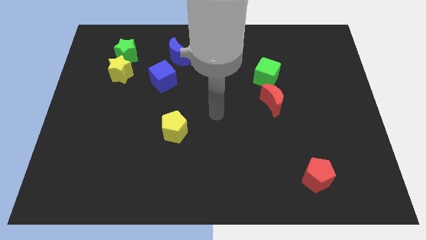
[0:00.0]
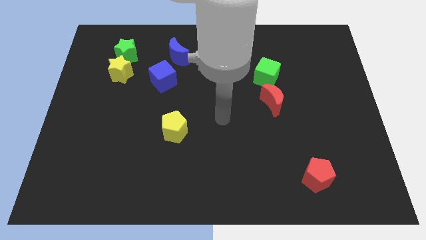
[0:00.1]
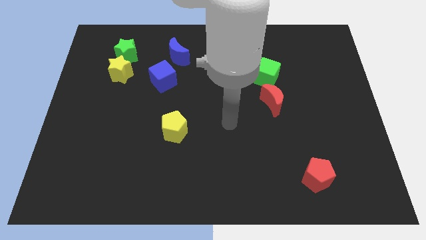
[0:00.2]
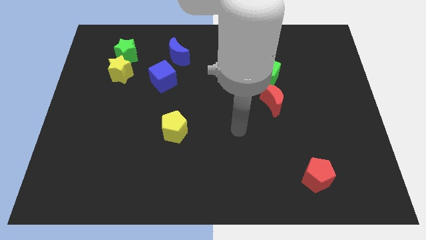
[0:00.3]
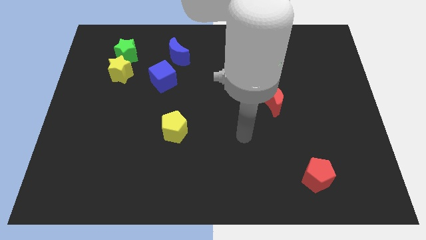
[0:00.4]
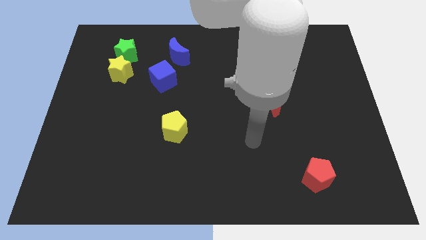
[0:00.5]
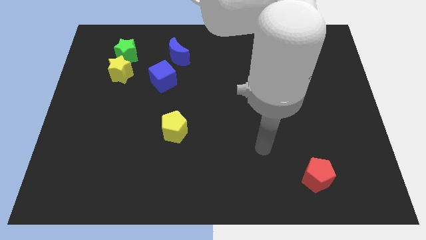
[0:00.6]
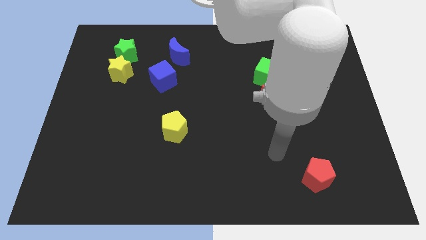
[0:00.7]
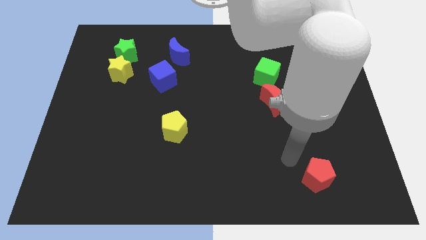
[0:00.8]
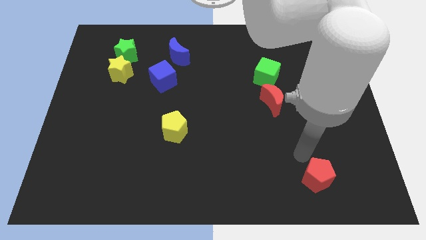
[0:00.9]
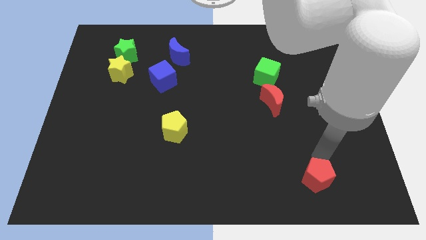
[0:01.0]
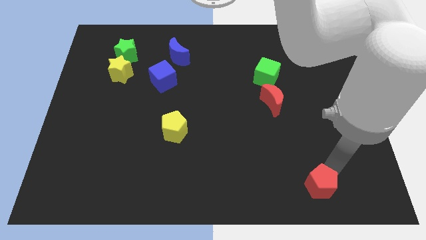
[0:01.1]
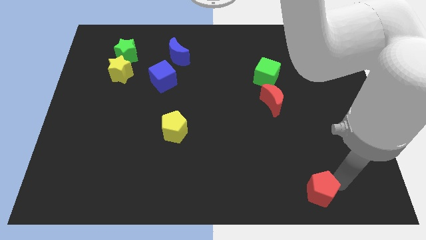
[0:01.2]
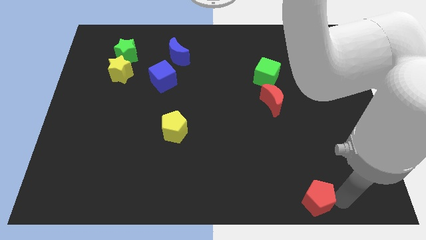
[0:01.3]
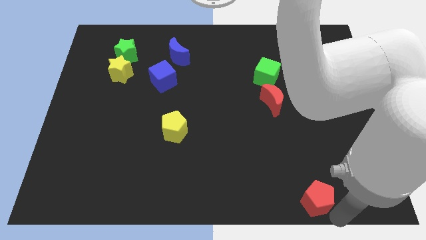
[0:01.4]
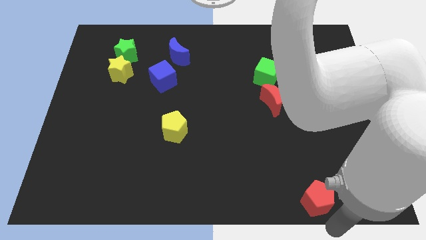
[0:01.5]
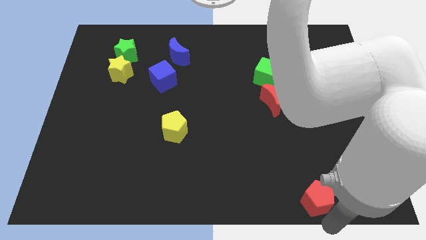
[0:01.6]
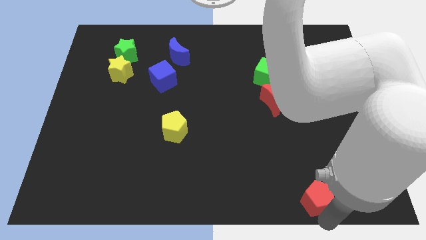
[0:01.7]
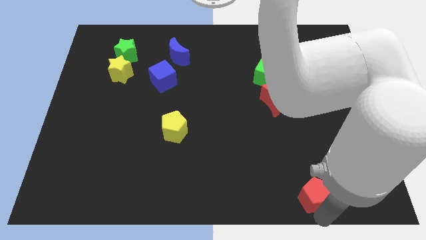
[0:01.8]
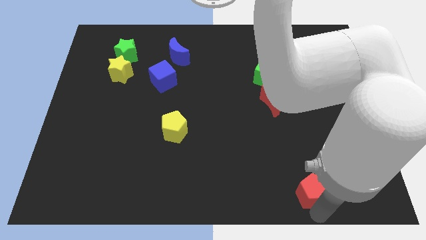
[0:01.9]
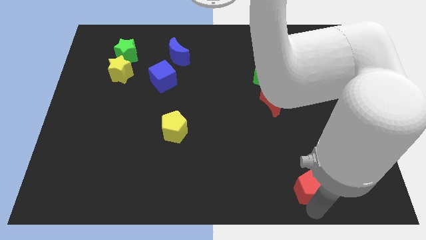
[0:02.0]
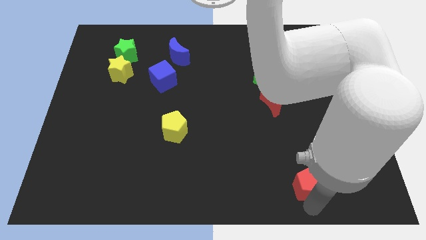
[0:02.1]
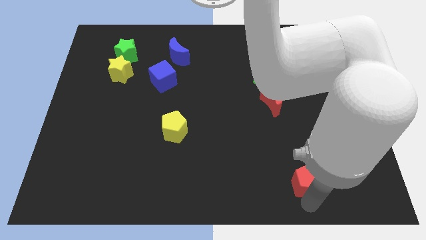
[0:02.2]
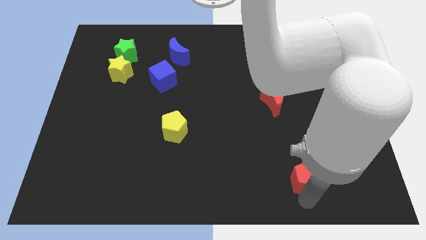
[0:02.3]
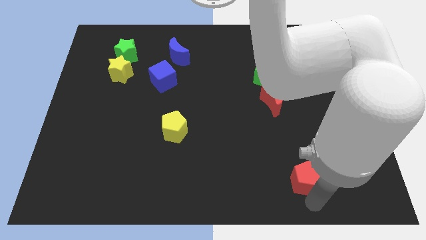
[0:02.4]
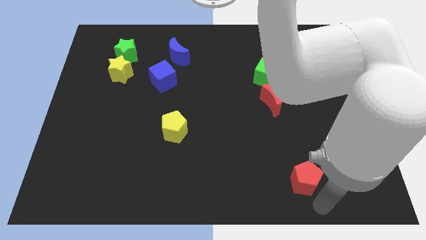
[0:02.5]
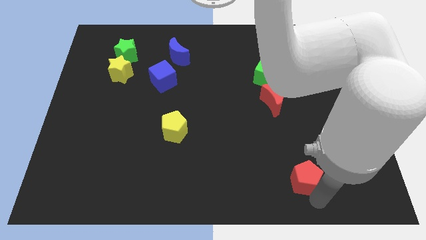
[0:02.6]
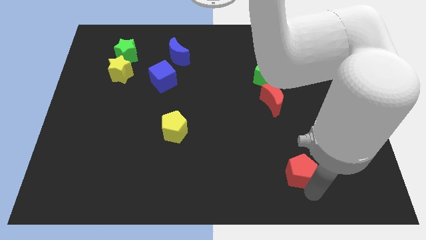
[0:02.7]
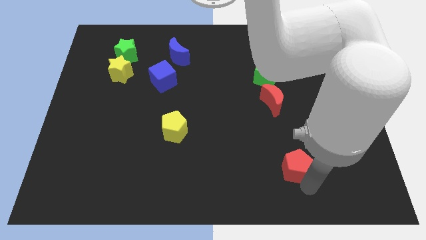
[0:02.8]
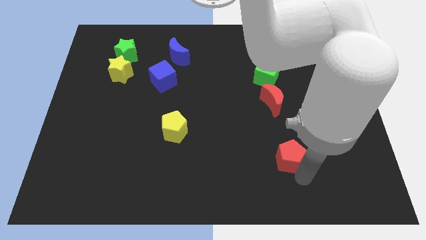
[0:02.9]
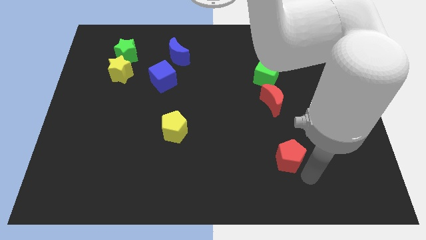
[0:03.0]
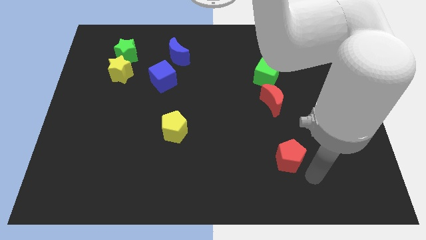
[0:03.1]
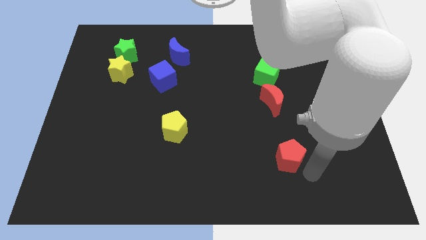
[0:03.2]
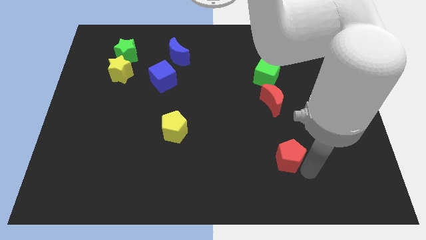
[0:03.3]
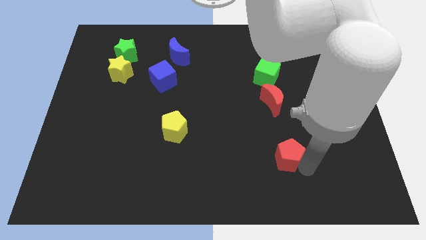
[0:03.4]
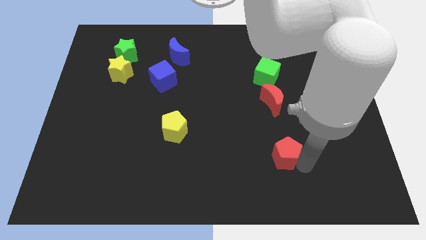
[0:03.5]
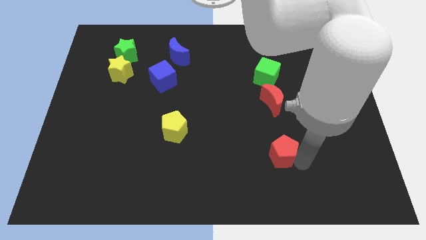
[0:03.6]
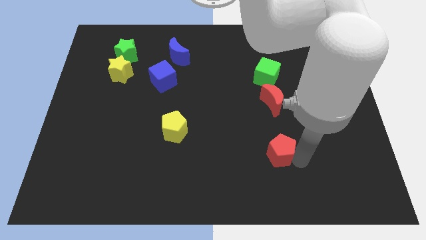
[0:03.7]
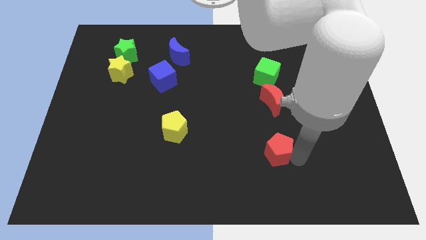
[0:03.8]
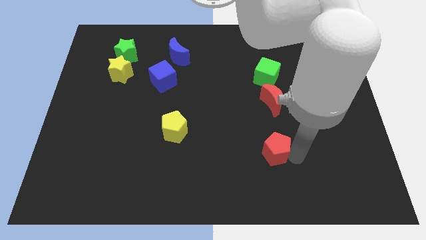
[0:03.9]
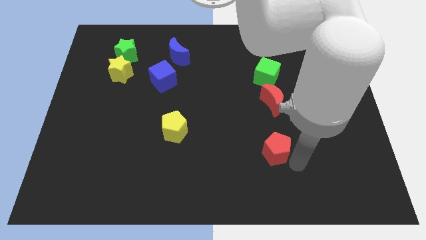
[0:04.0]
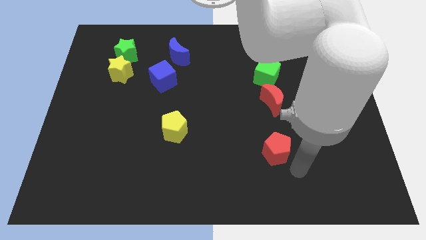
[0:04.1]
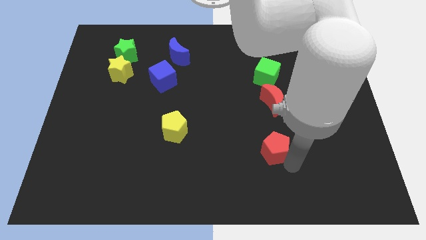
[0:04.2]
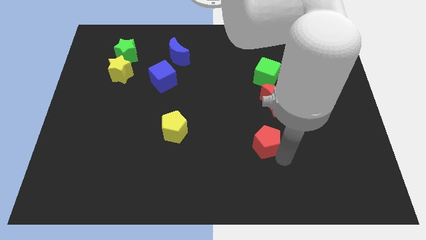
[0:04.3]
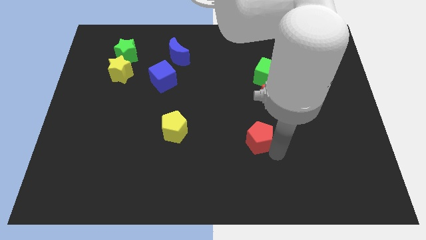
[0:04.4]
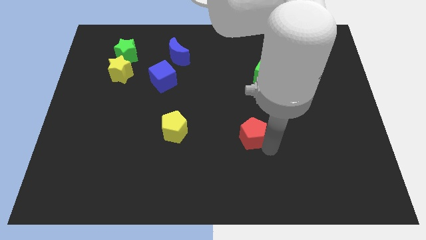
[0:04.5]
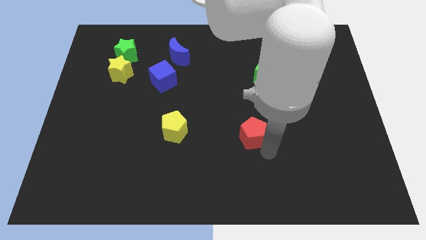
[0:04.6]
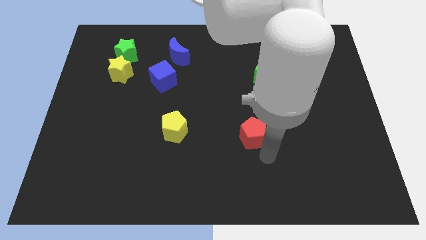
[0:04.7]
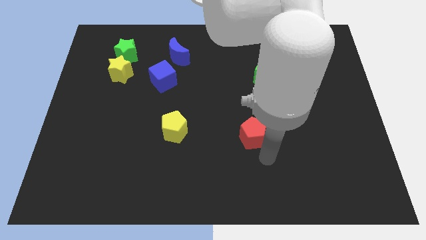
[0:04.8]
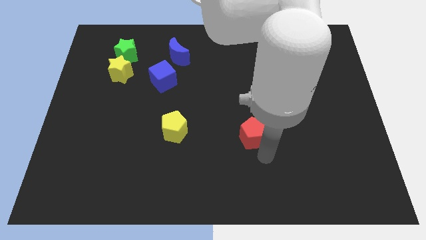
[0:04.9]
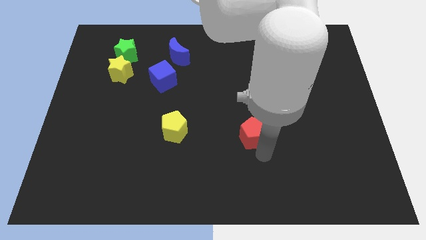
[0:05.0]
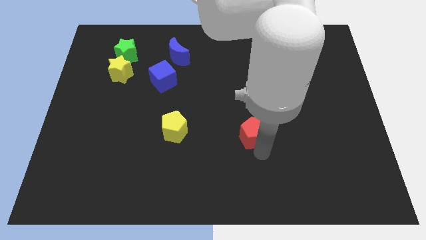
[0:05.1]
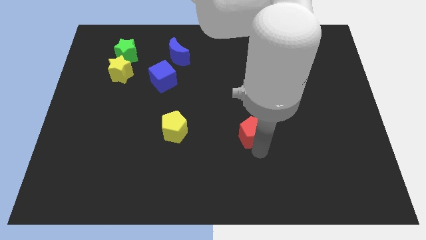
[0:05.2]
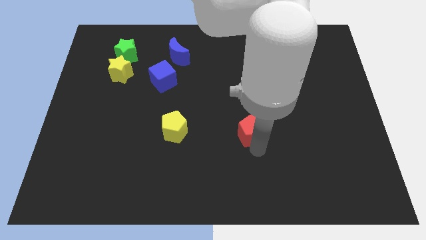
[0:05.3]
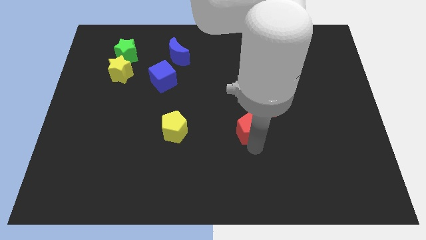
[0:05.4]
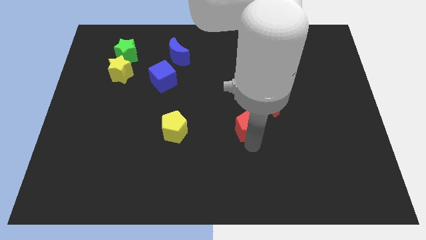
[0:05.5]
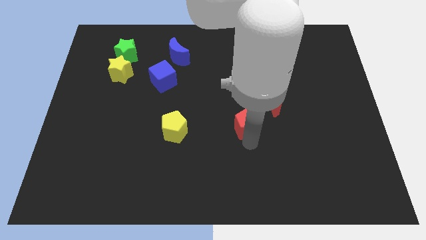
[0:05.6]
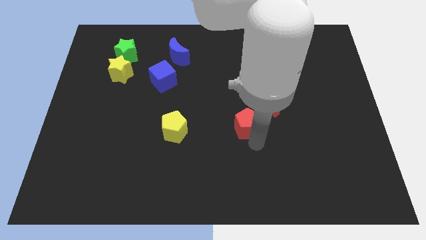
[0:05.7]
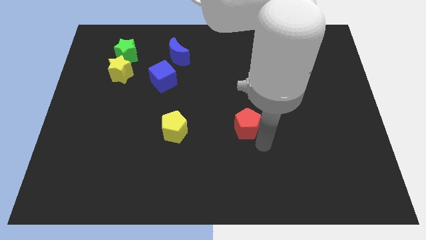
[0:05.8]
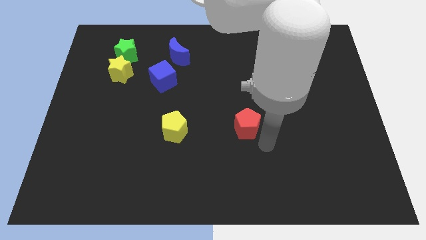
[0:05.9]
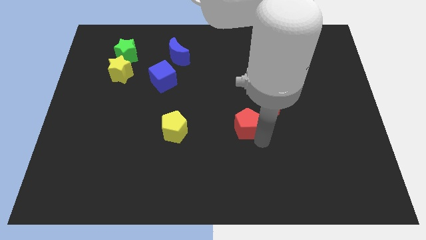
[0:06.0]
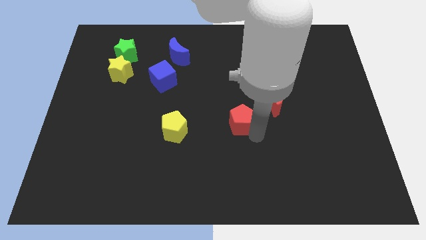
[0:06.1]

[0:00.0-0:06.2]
push the red pentagon upwards and then left

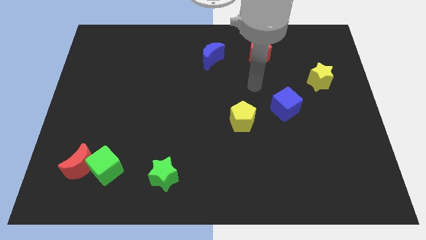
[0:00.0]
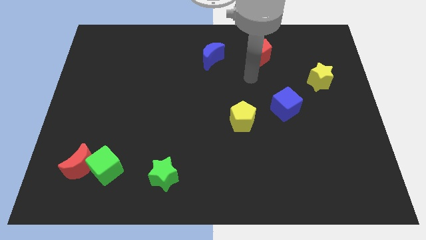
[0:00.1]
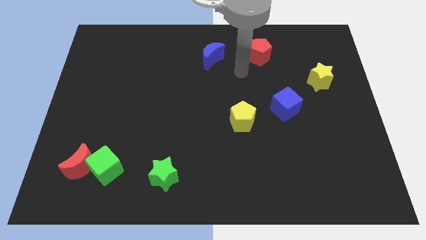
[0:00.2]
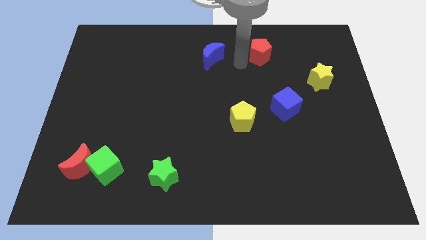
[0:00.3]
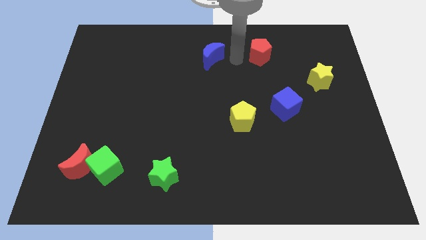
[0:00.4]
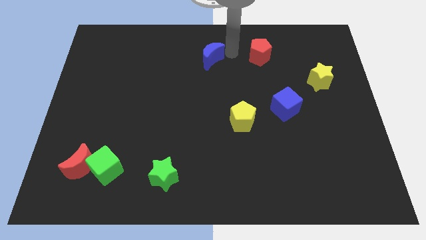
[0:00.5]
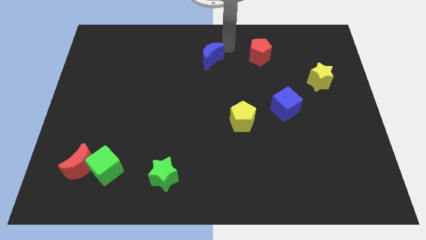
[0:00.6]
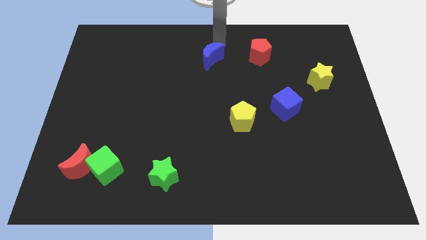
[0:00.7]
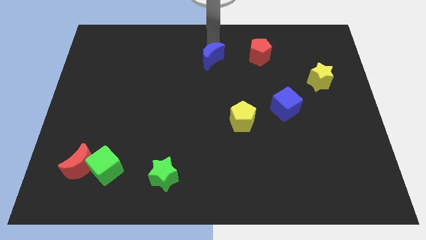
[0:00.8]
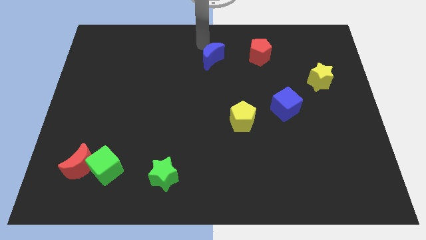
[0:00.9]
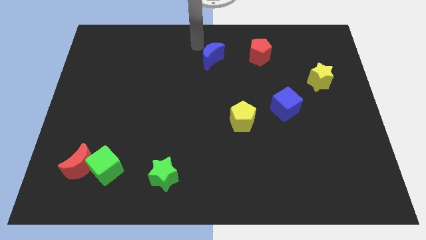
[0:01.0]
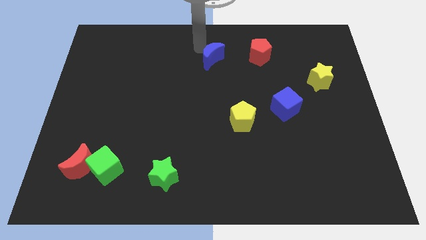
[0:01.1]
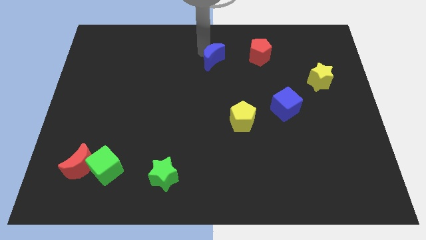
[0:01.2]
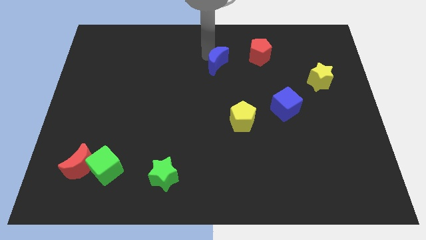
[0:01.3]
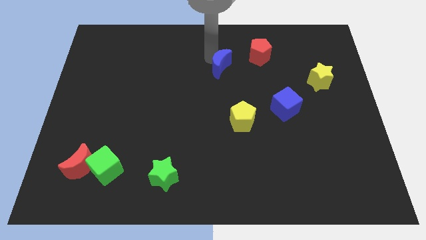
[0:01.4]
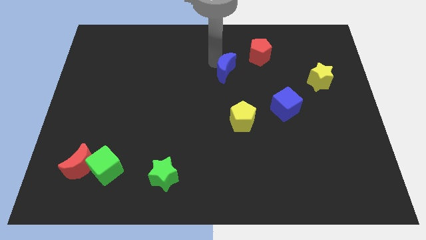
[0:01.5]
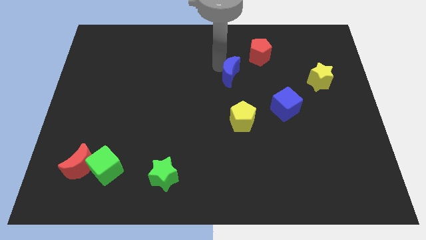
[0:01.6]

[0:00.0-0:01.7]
slightly slide the blue moon down and right

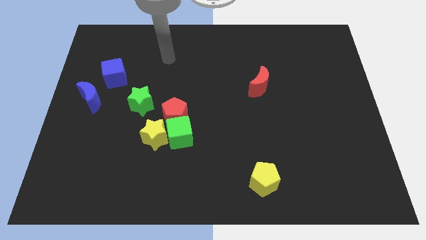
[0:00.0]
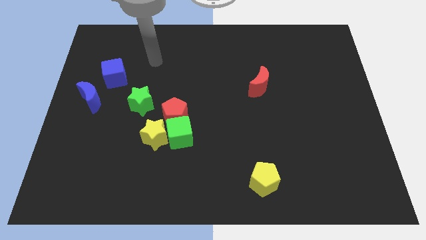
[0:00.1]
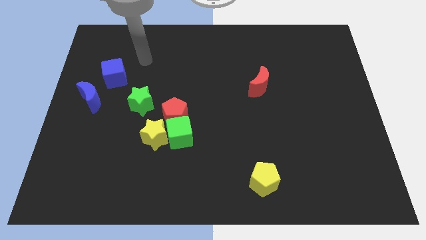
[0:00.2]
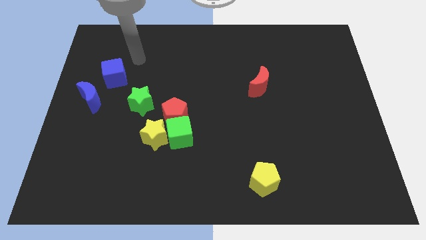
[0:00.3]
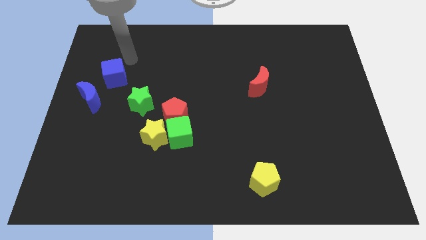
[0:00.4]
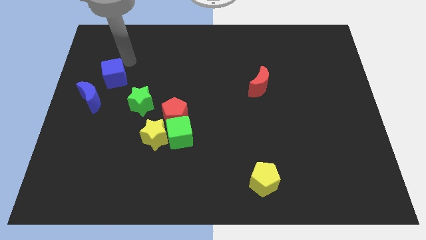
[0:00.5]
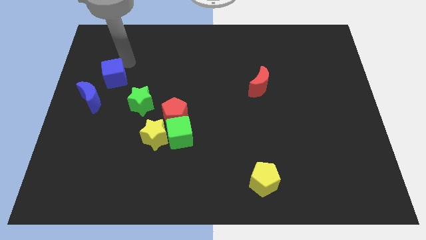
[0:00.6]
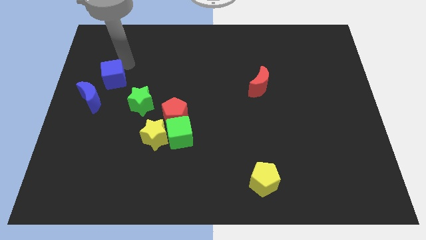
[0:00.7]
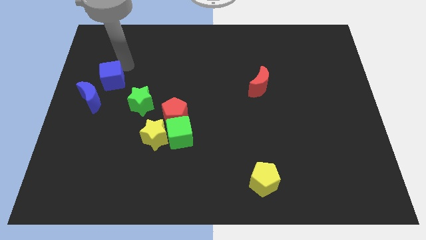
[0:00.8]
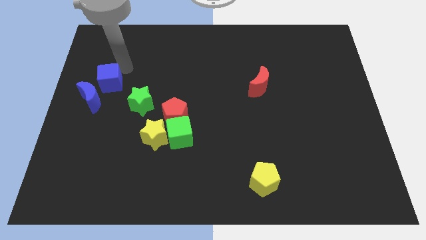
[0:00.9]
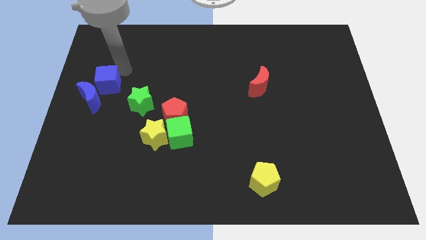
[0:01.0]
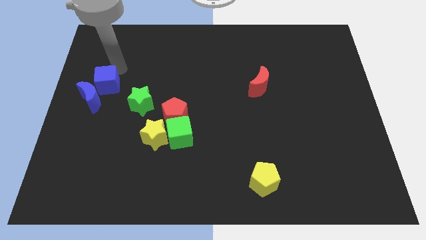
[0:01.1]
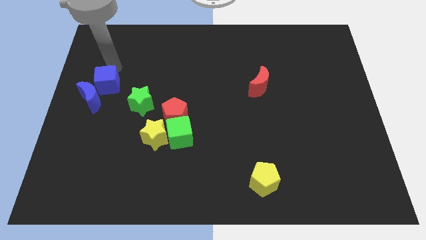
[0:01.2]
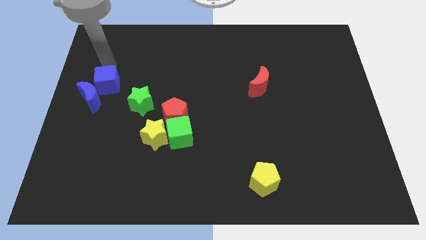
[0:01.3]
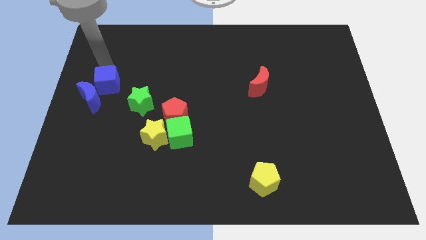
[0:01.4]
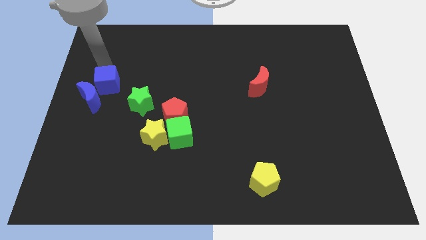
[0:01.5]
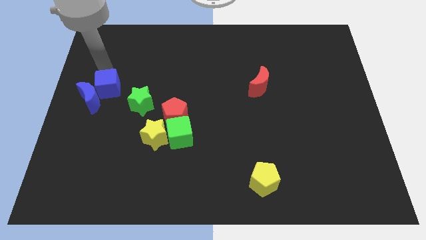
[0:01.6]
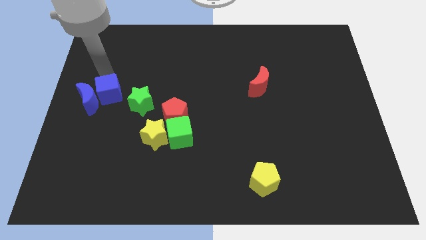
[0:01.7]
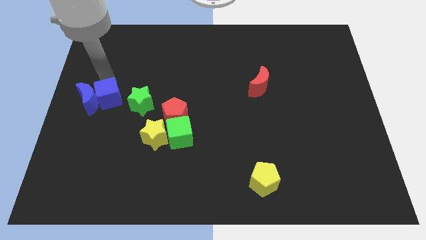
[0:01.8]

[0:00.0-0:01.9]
slightly push the blue cube downwards
